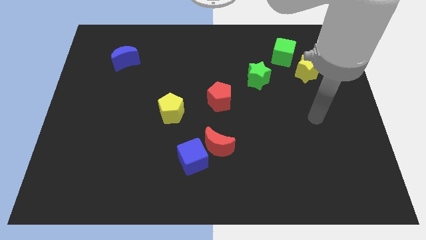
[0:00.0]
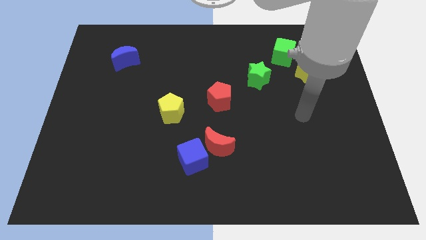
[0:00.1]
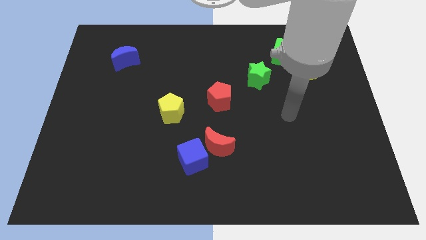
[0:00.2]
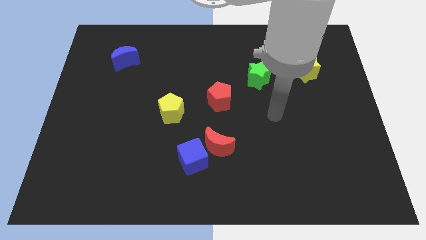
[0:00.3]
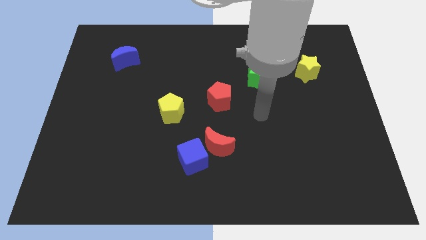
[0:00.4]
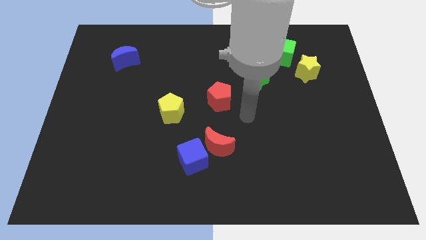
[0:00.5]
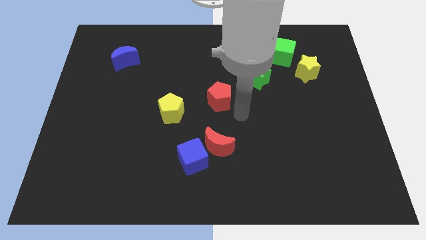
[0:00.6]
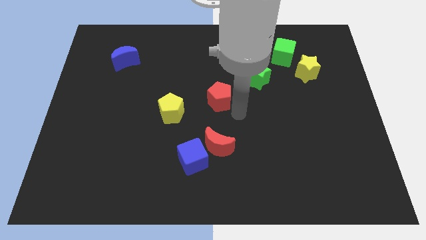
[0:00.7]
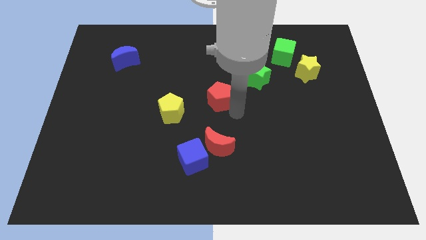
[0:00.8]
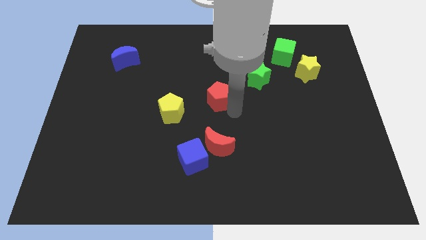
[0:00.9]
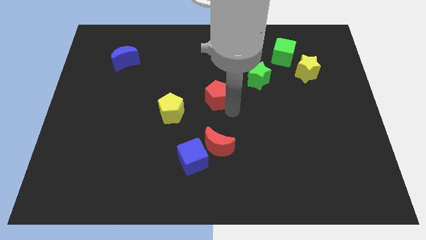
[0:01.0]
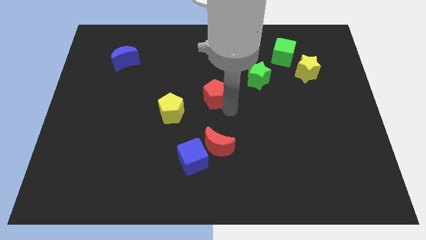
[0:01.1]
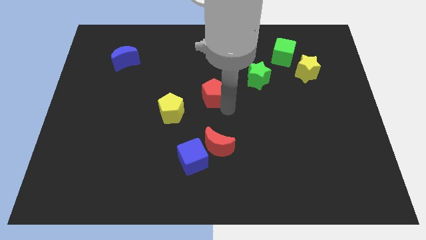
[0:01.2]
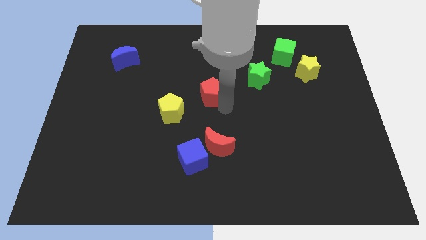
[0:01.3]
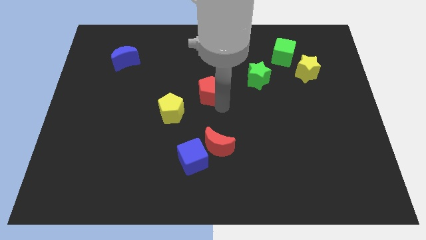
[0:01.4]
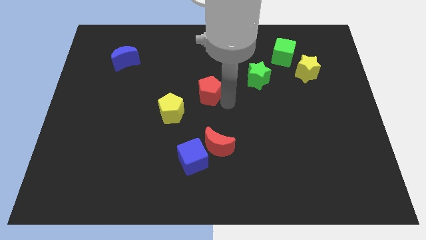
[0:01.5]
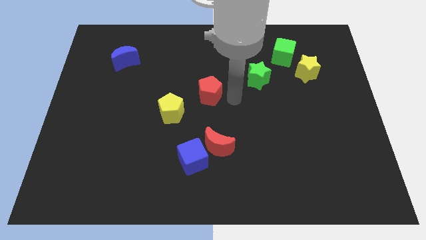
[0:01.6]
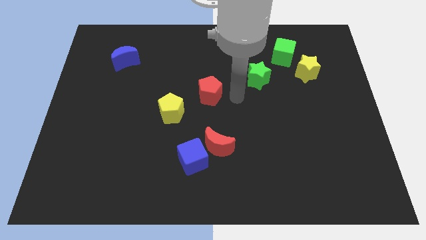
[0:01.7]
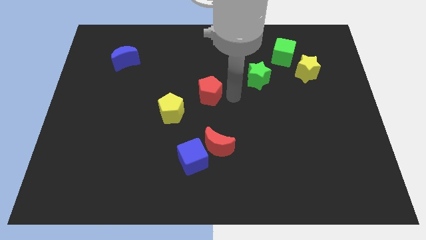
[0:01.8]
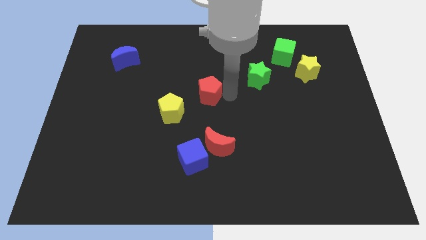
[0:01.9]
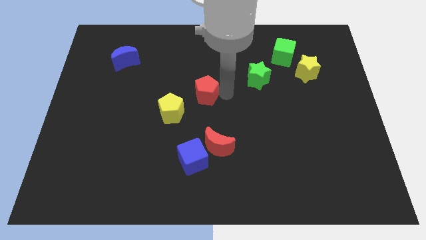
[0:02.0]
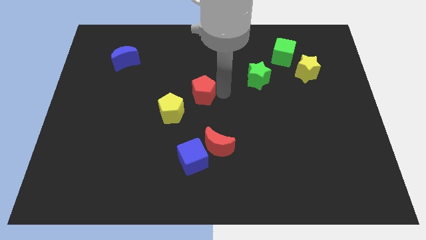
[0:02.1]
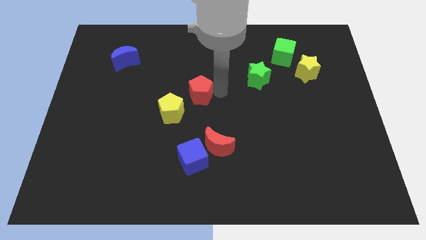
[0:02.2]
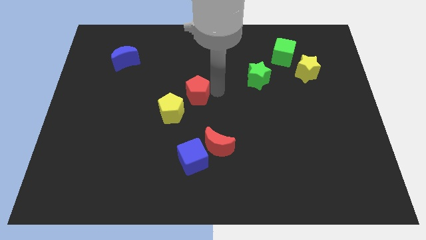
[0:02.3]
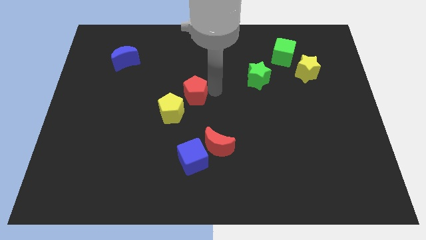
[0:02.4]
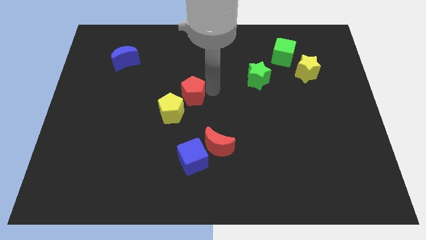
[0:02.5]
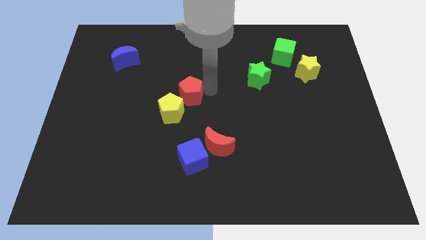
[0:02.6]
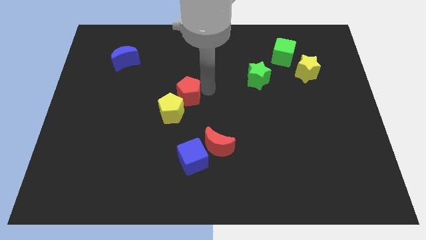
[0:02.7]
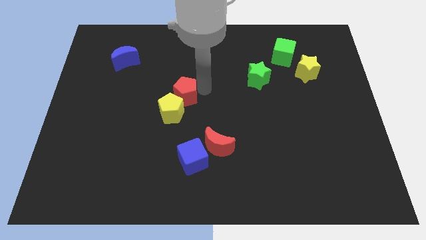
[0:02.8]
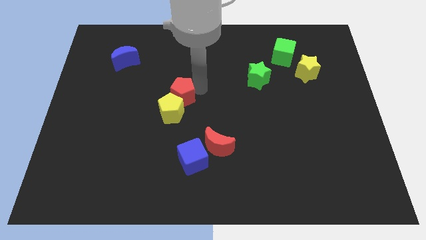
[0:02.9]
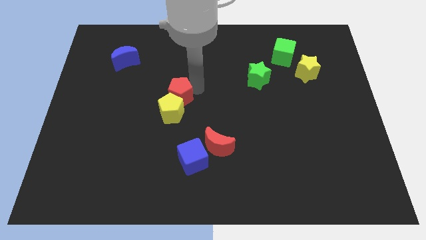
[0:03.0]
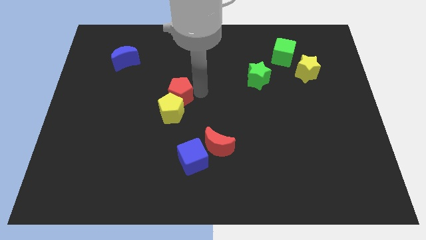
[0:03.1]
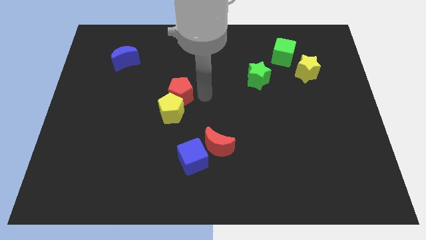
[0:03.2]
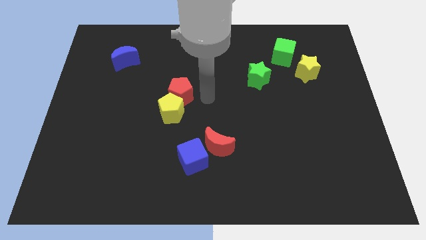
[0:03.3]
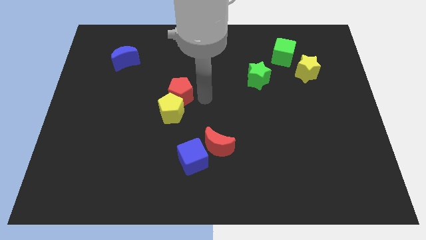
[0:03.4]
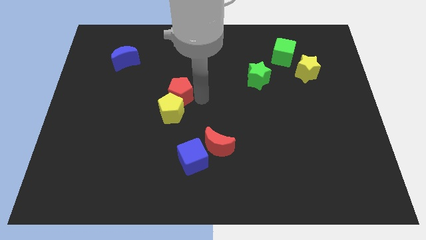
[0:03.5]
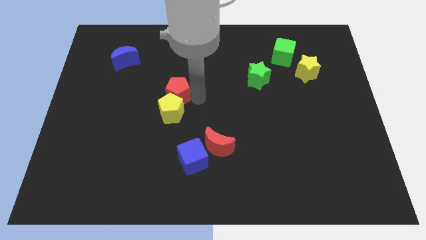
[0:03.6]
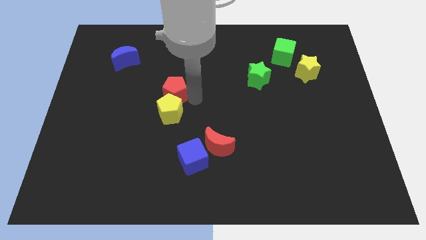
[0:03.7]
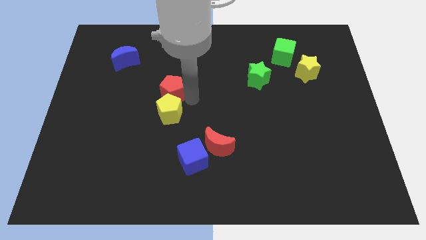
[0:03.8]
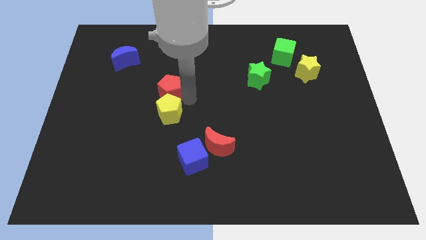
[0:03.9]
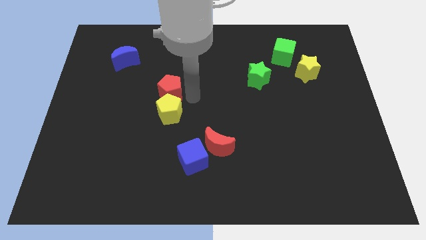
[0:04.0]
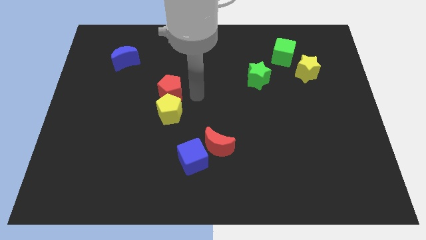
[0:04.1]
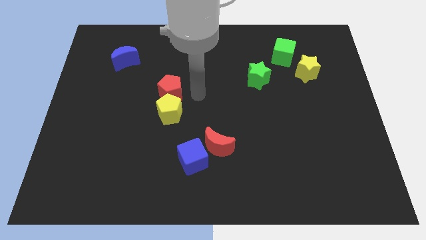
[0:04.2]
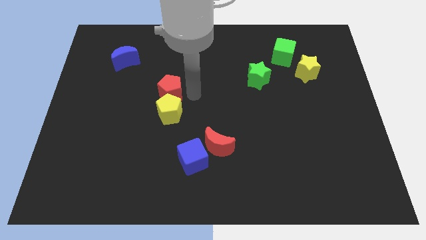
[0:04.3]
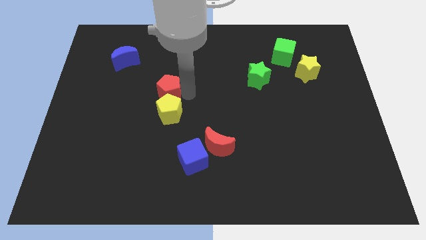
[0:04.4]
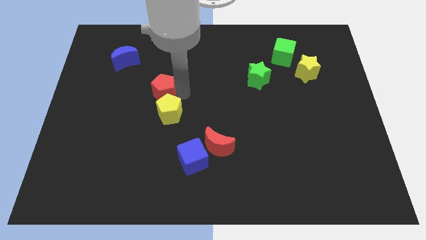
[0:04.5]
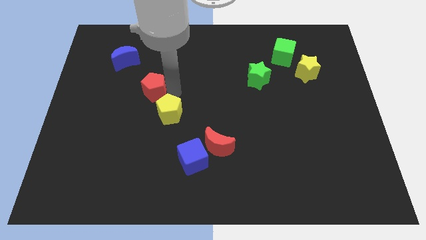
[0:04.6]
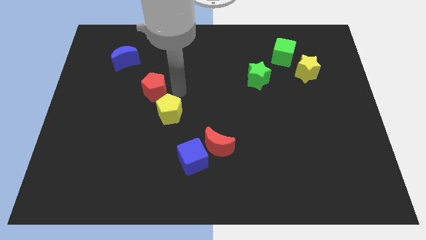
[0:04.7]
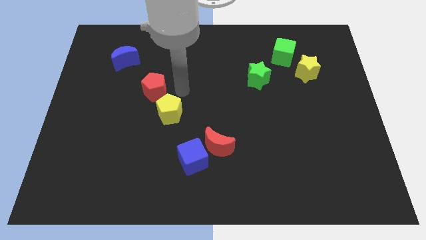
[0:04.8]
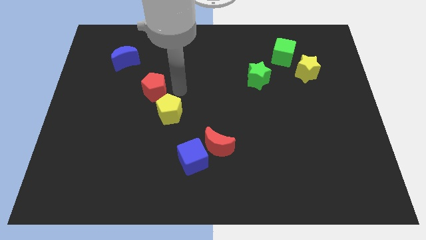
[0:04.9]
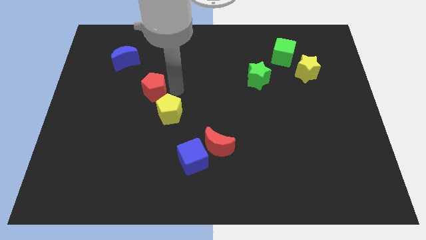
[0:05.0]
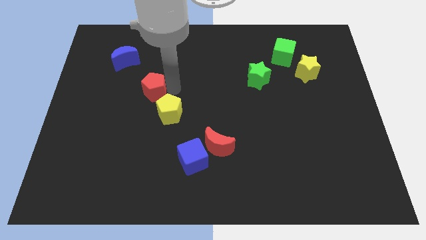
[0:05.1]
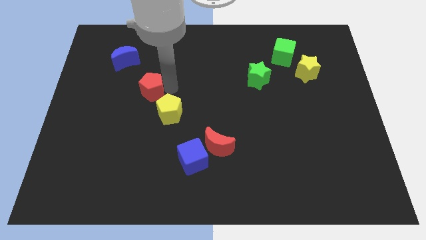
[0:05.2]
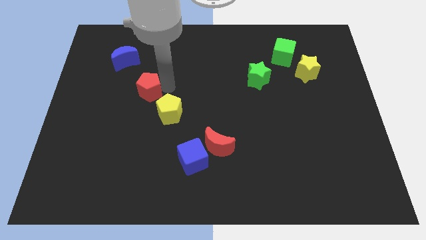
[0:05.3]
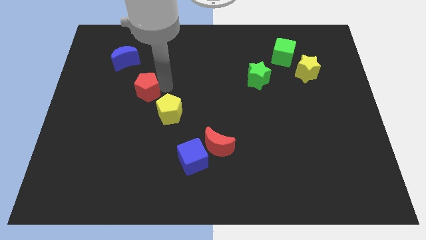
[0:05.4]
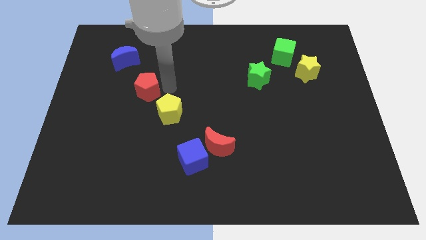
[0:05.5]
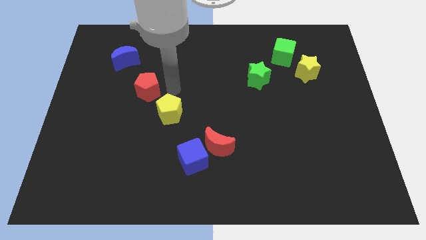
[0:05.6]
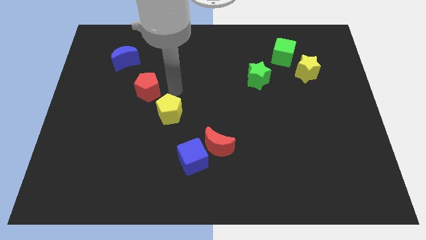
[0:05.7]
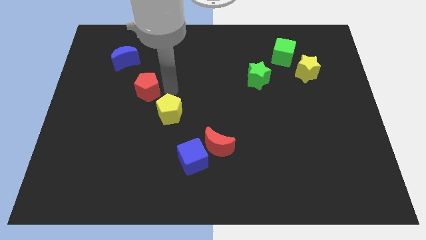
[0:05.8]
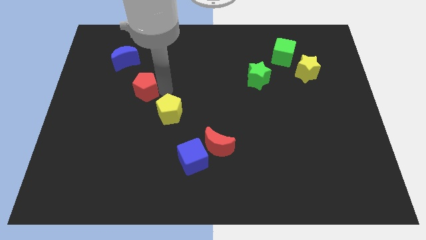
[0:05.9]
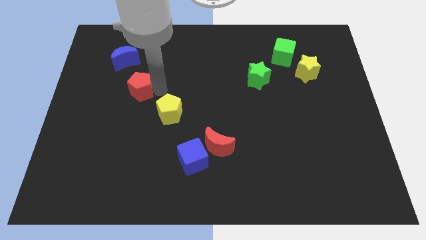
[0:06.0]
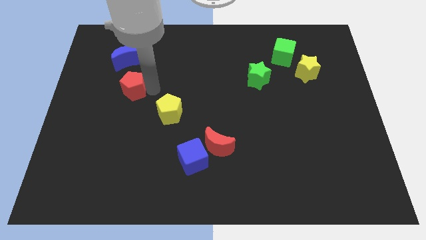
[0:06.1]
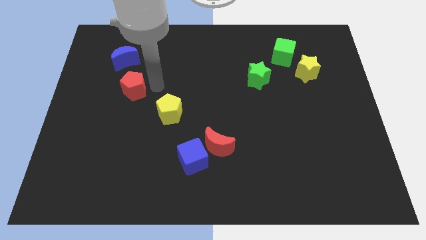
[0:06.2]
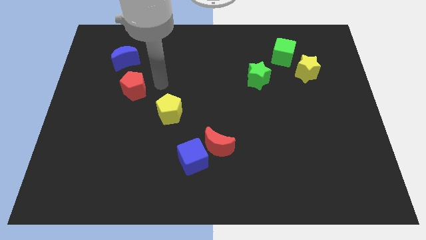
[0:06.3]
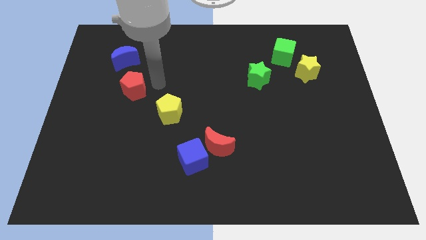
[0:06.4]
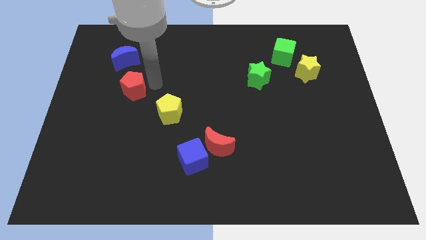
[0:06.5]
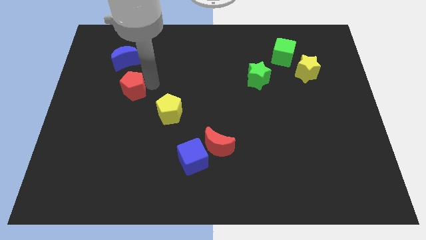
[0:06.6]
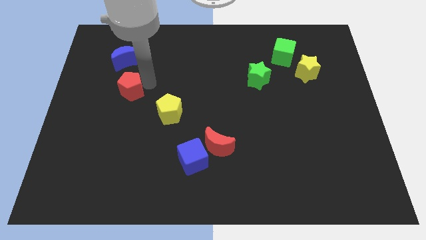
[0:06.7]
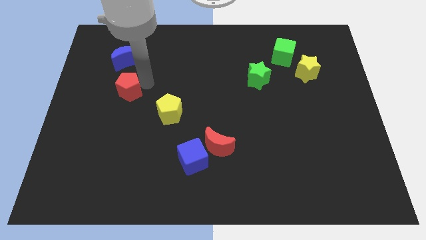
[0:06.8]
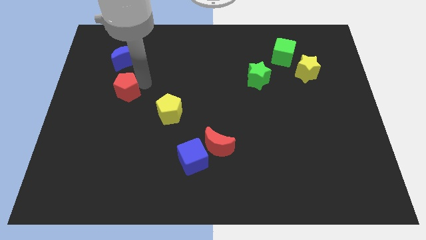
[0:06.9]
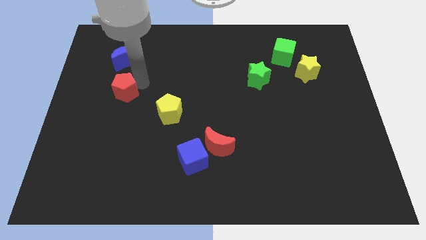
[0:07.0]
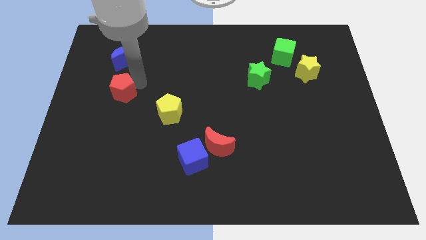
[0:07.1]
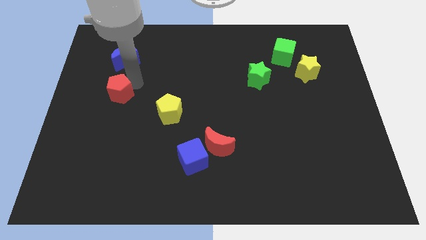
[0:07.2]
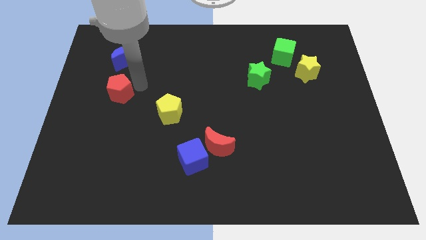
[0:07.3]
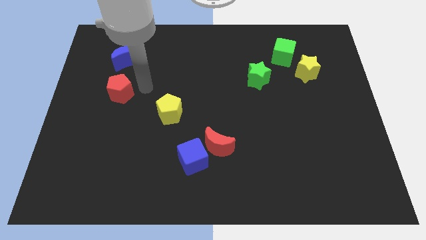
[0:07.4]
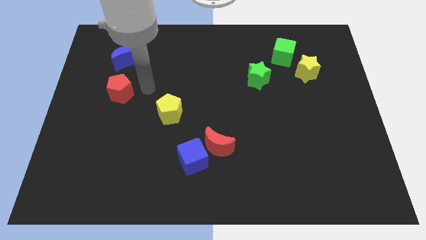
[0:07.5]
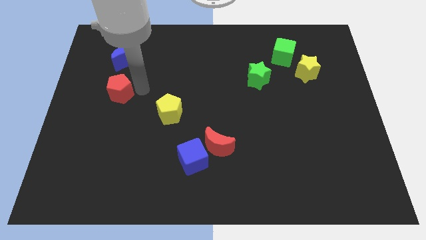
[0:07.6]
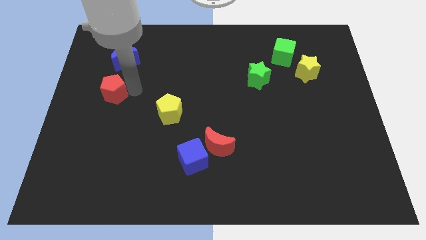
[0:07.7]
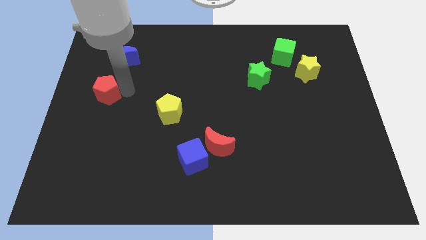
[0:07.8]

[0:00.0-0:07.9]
put the red pentagon to the center left
